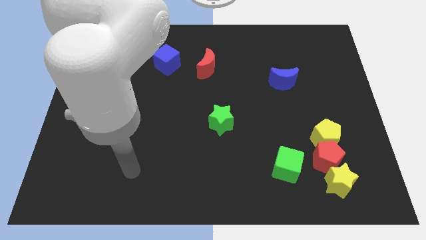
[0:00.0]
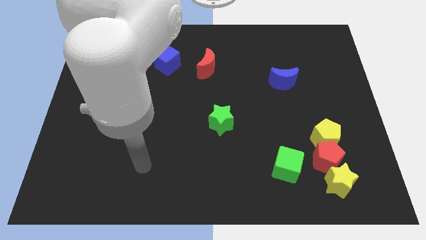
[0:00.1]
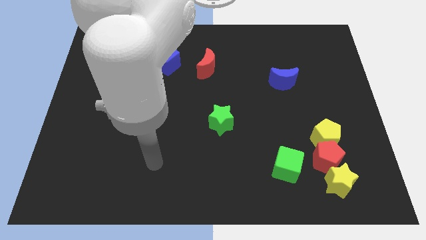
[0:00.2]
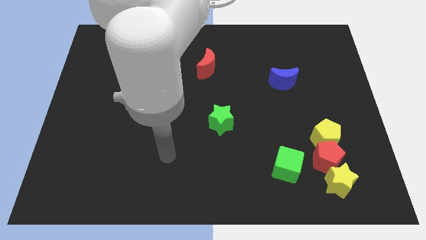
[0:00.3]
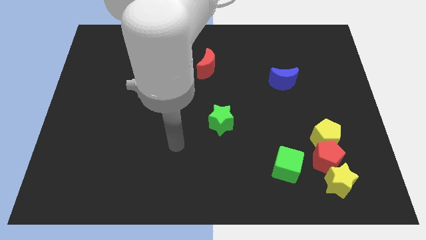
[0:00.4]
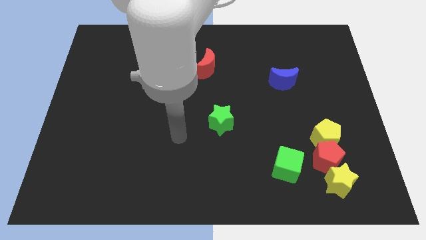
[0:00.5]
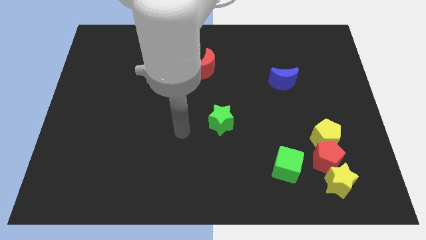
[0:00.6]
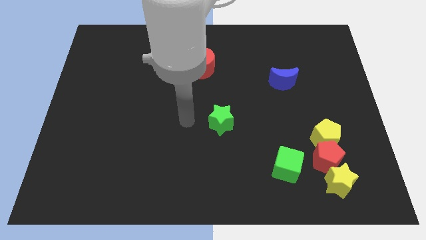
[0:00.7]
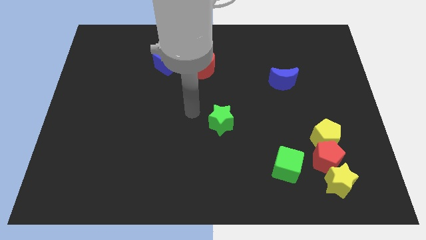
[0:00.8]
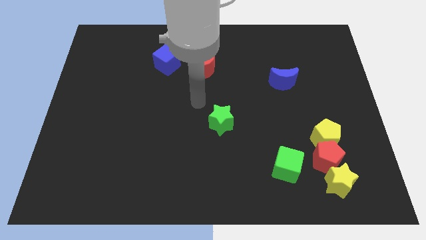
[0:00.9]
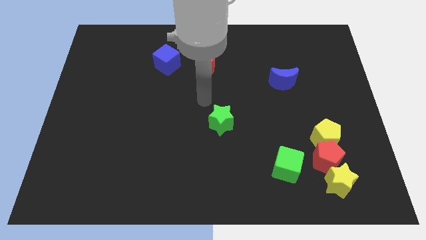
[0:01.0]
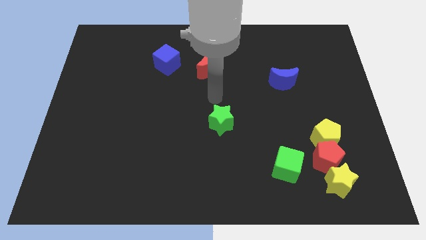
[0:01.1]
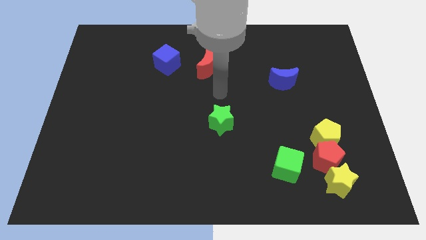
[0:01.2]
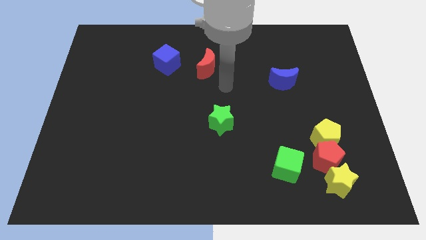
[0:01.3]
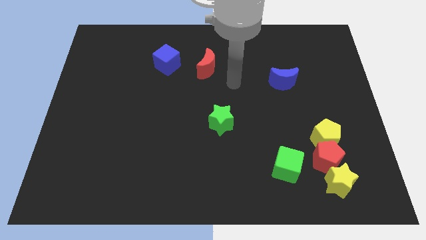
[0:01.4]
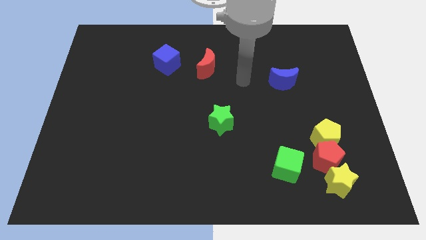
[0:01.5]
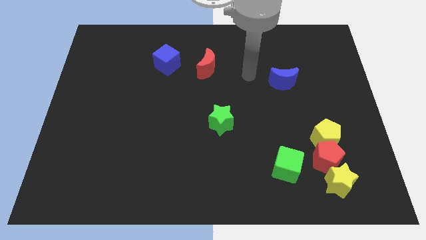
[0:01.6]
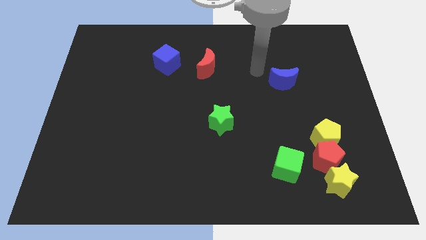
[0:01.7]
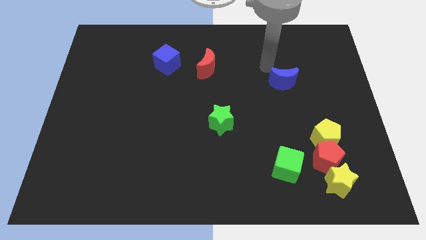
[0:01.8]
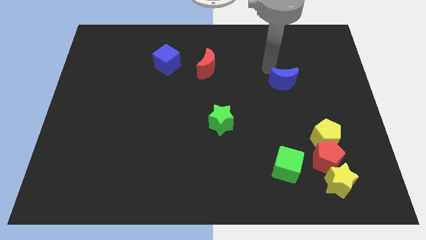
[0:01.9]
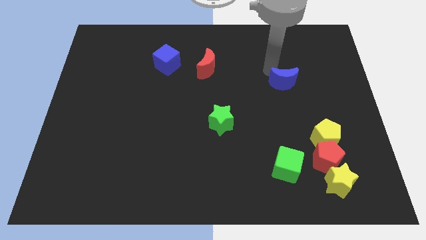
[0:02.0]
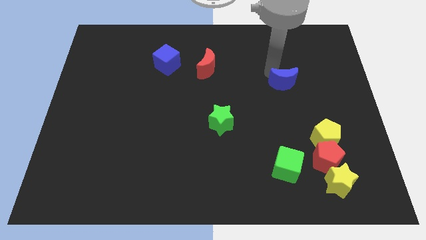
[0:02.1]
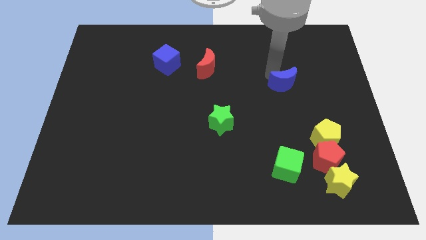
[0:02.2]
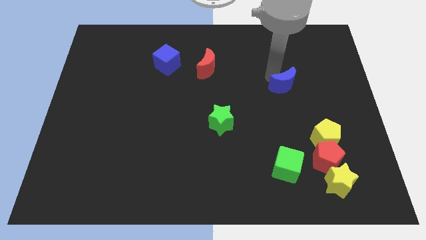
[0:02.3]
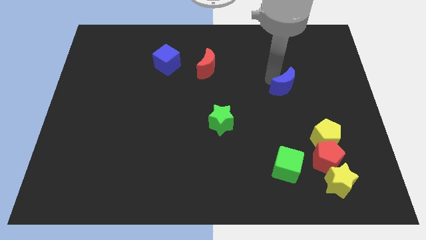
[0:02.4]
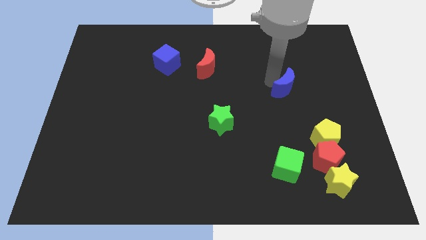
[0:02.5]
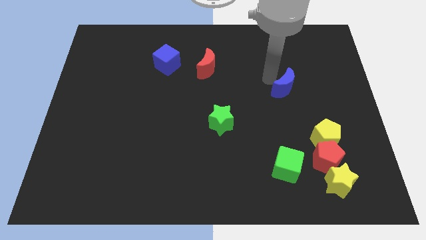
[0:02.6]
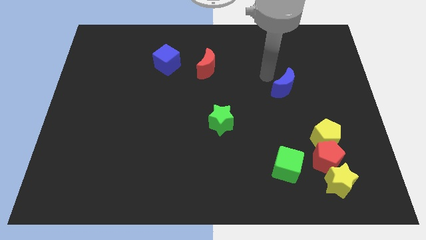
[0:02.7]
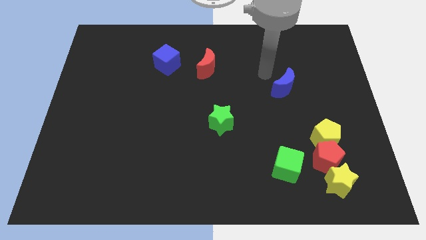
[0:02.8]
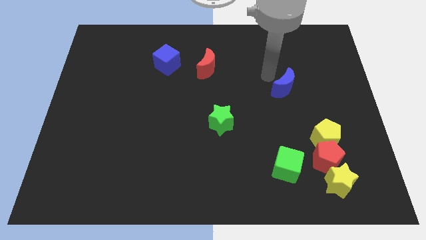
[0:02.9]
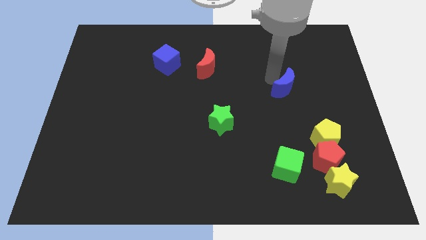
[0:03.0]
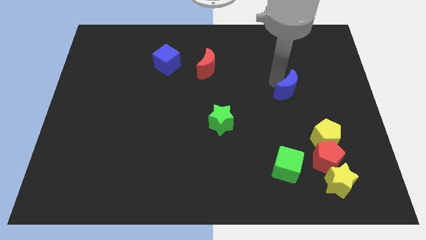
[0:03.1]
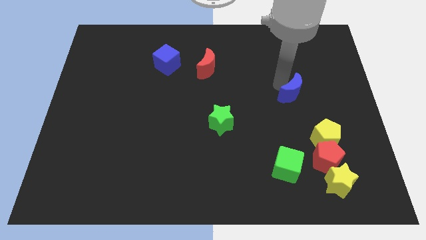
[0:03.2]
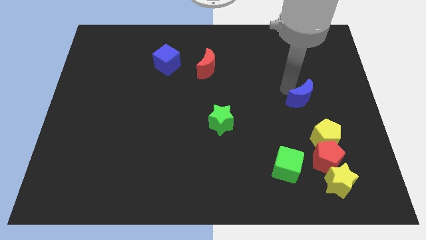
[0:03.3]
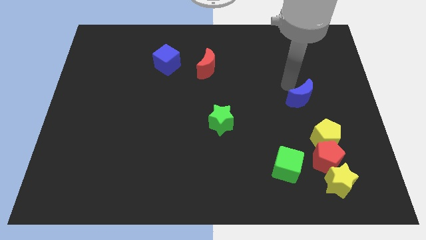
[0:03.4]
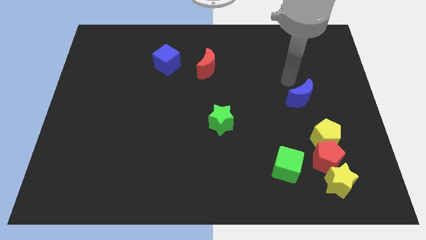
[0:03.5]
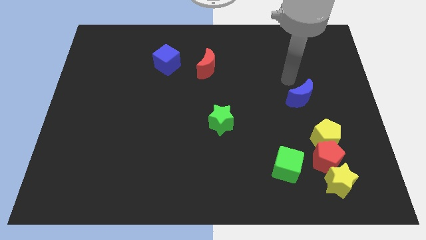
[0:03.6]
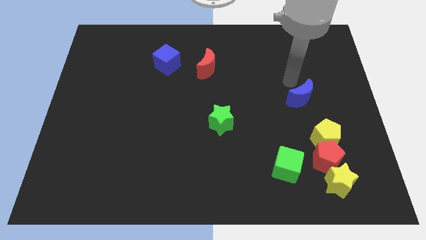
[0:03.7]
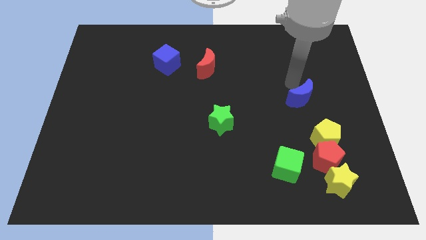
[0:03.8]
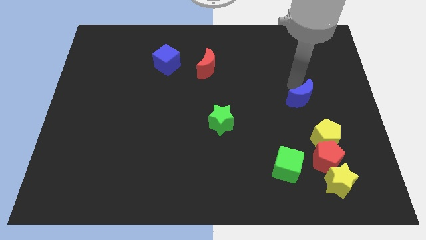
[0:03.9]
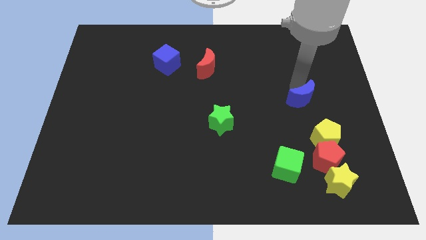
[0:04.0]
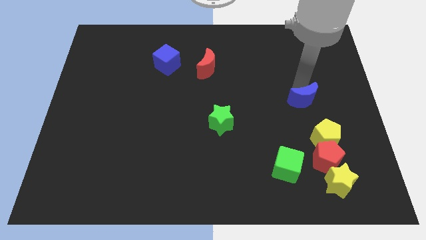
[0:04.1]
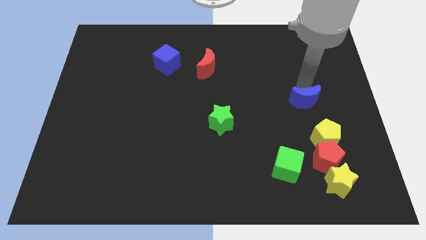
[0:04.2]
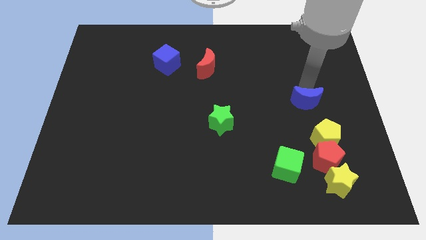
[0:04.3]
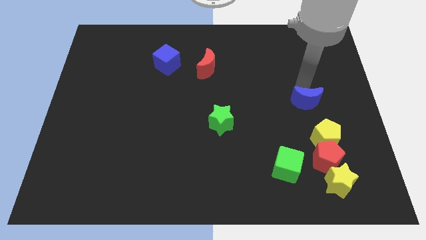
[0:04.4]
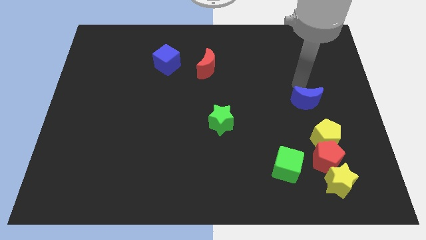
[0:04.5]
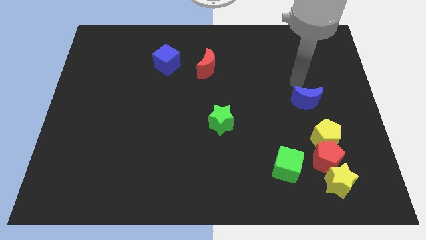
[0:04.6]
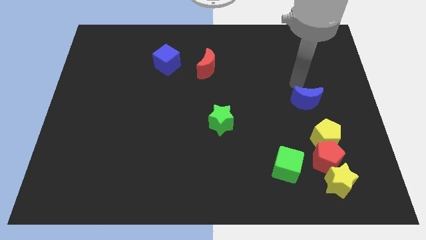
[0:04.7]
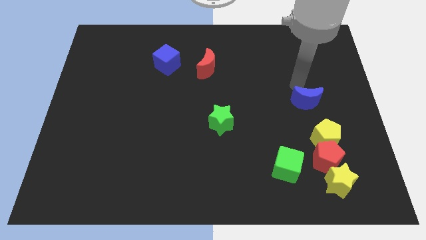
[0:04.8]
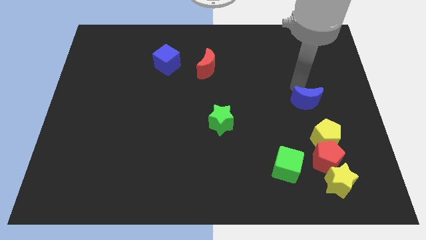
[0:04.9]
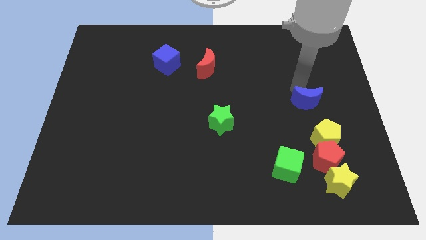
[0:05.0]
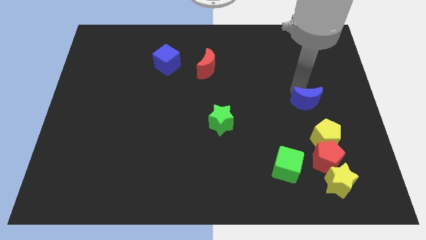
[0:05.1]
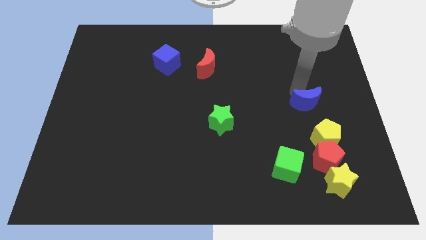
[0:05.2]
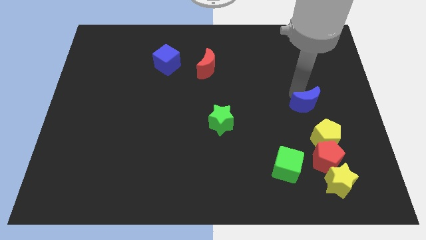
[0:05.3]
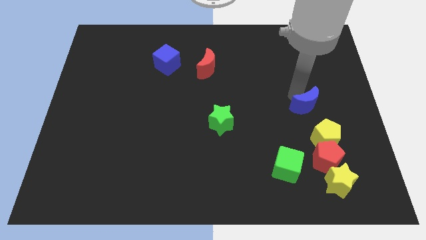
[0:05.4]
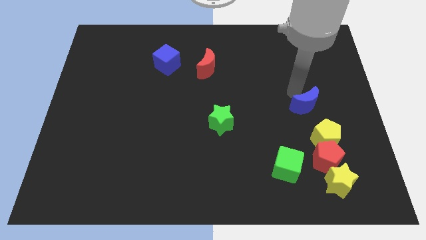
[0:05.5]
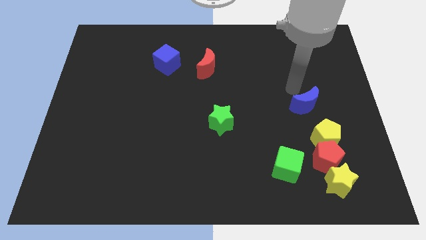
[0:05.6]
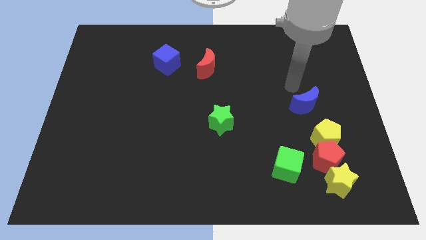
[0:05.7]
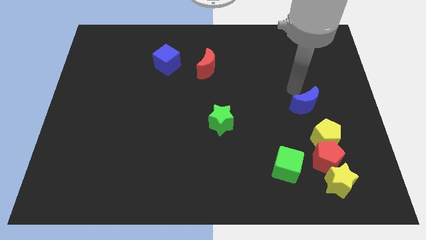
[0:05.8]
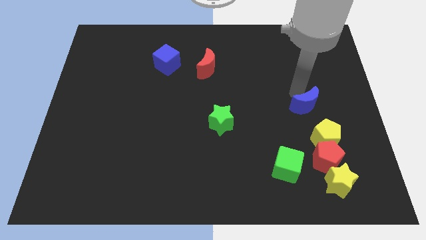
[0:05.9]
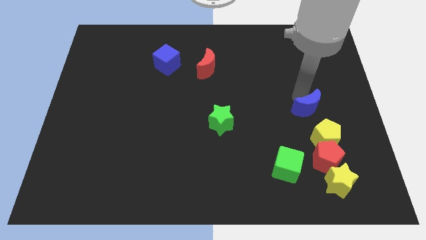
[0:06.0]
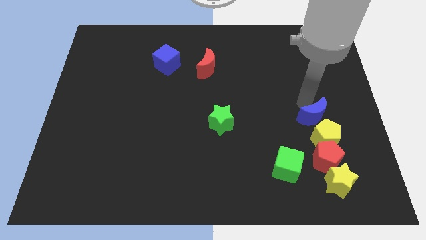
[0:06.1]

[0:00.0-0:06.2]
slide the blue moon towards the yellow pentagon

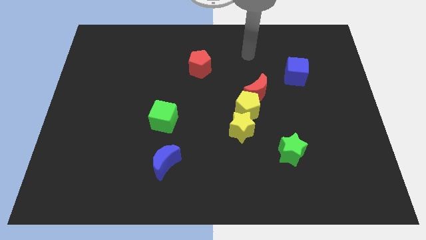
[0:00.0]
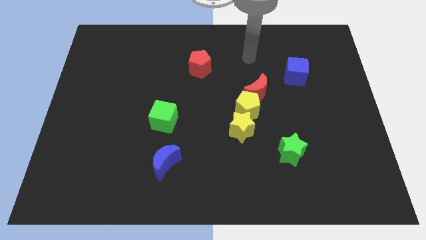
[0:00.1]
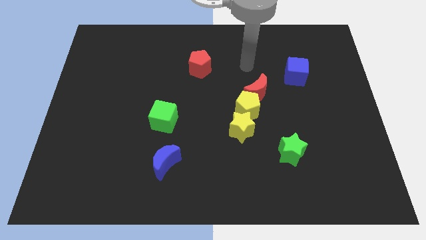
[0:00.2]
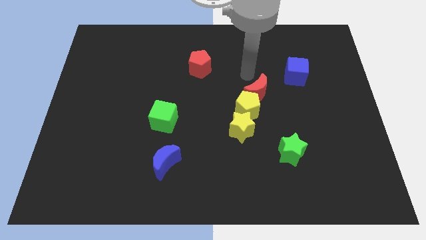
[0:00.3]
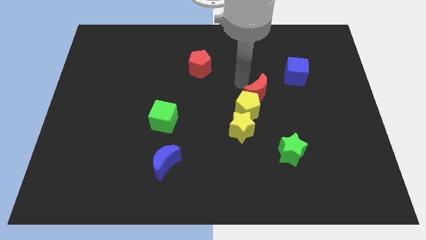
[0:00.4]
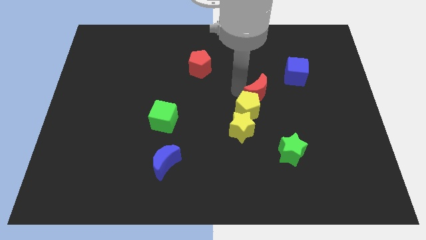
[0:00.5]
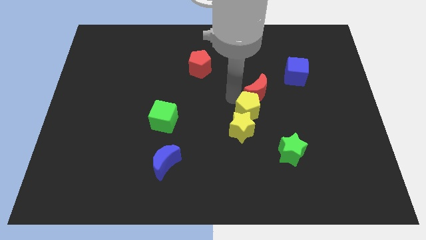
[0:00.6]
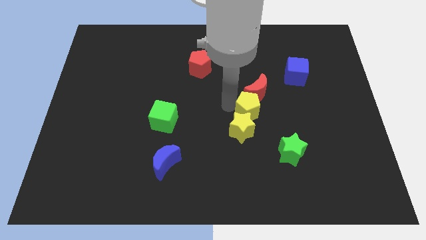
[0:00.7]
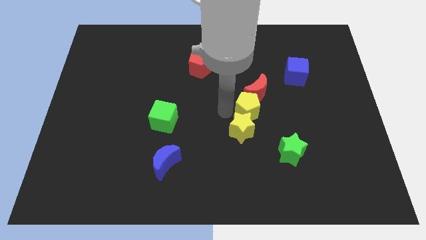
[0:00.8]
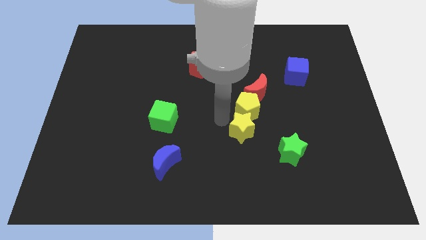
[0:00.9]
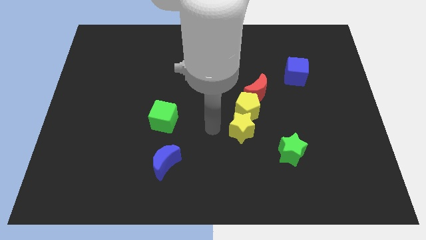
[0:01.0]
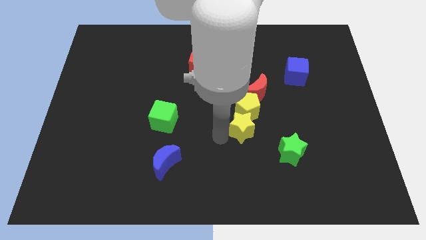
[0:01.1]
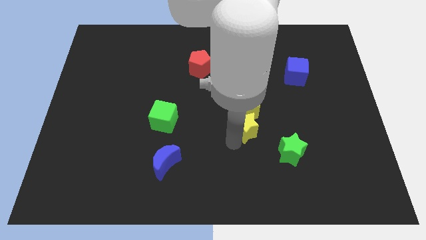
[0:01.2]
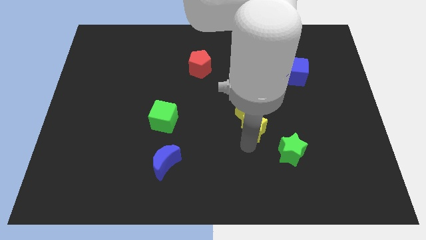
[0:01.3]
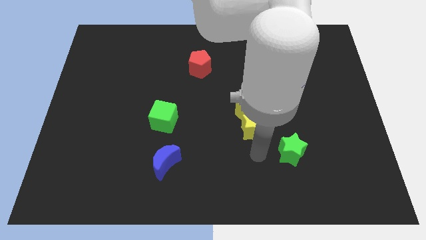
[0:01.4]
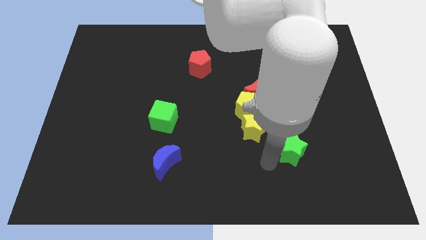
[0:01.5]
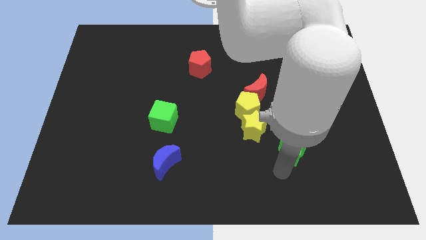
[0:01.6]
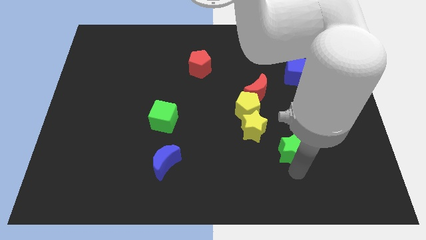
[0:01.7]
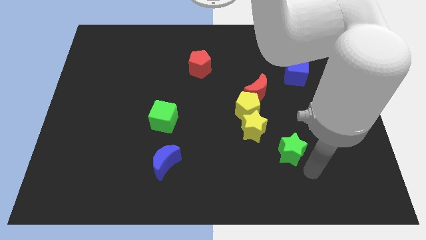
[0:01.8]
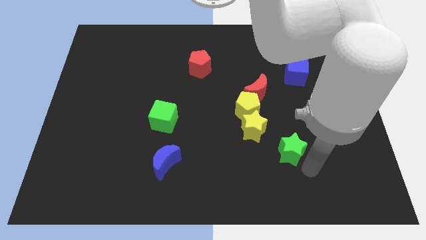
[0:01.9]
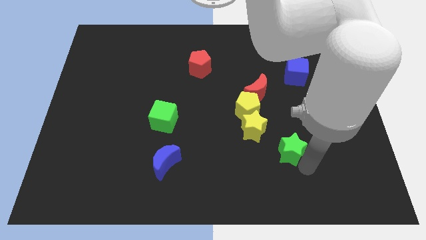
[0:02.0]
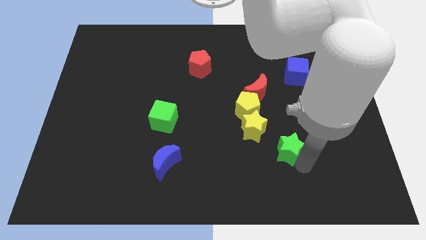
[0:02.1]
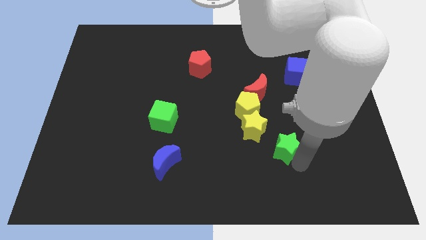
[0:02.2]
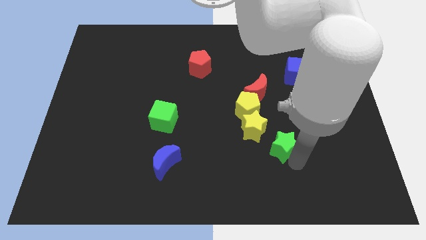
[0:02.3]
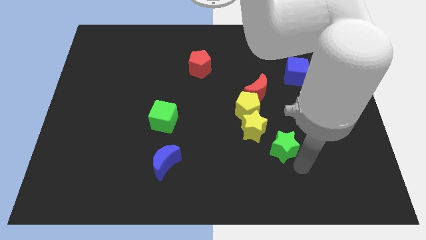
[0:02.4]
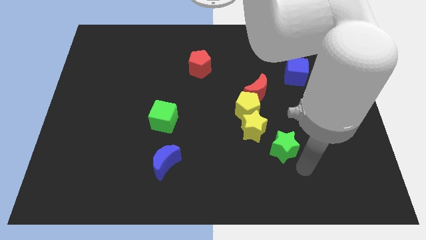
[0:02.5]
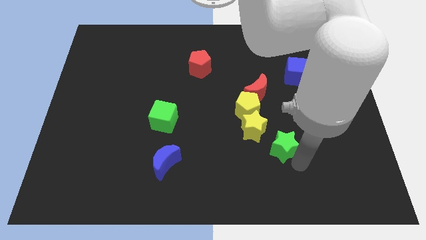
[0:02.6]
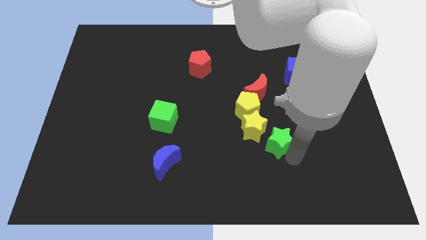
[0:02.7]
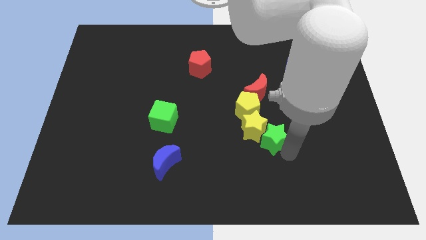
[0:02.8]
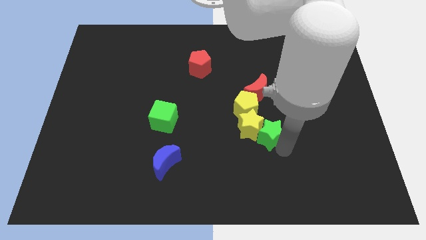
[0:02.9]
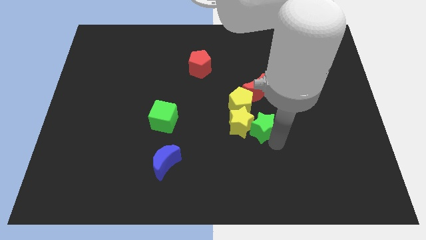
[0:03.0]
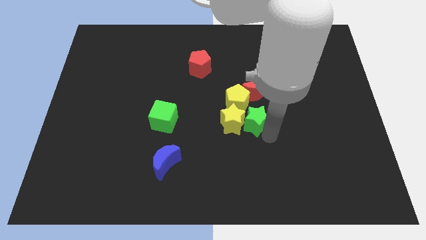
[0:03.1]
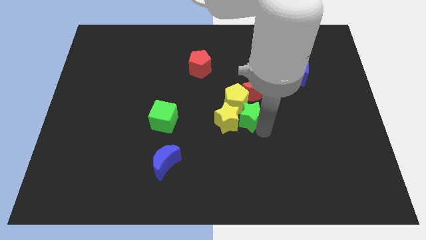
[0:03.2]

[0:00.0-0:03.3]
push the green star towards the yellow pentagon
